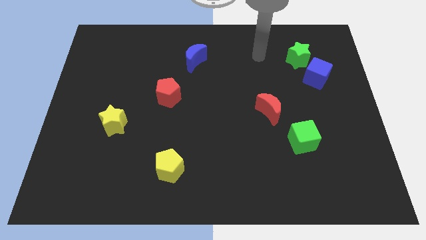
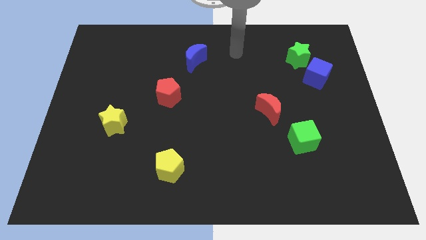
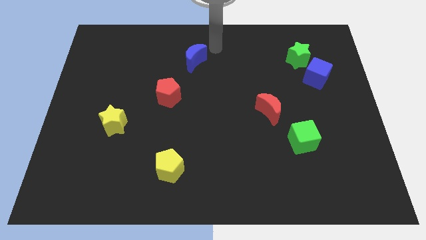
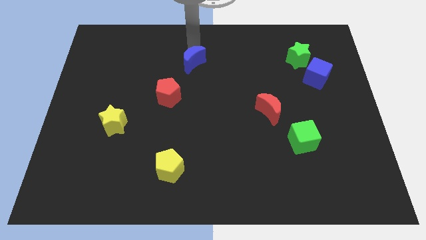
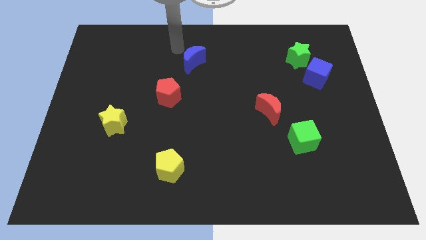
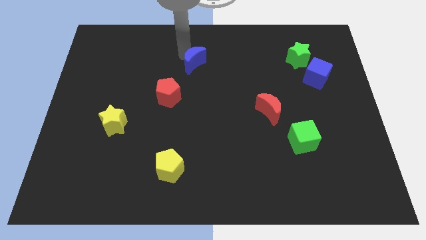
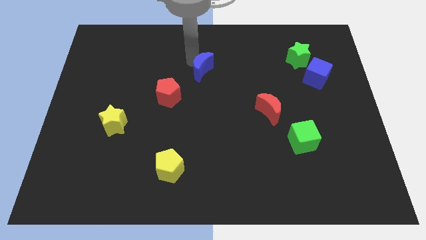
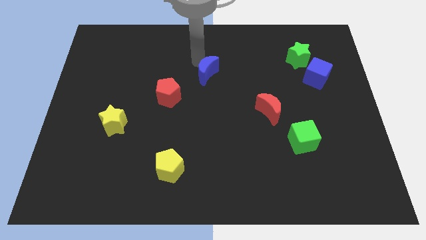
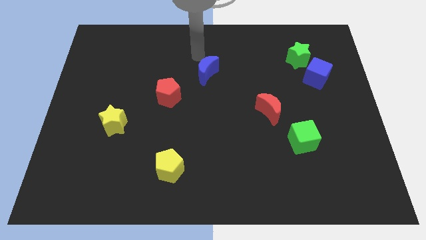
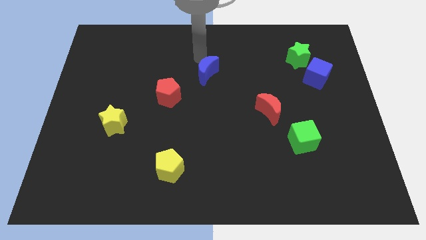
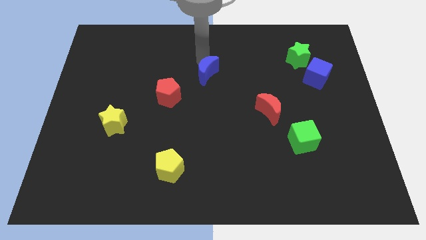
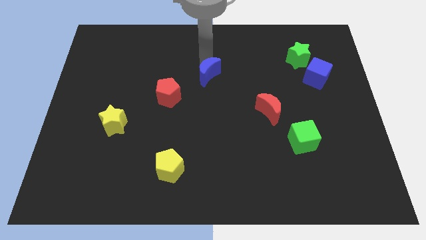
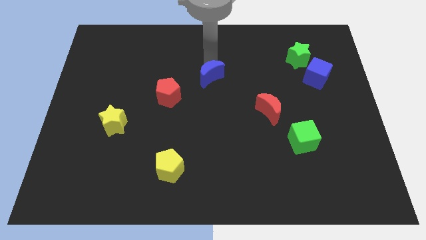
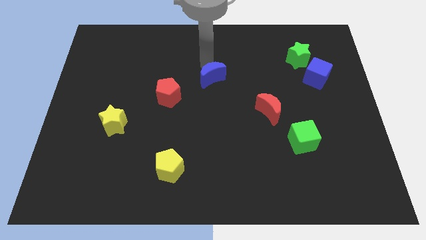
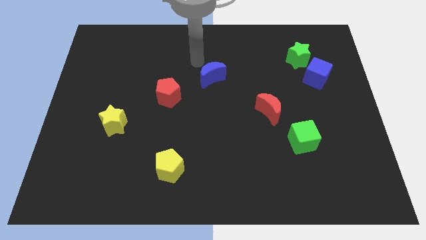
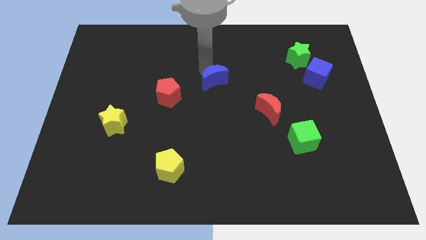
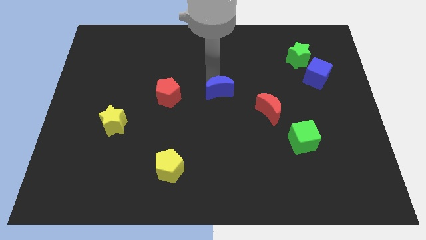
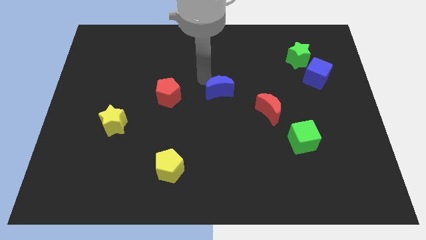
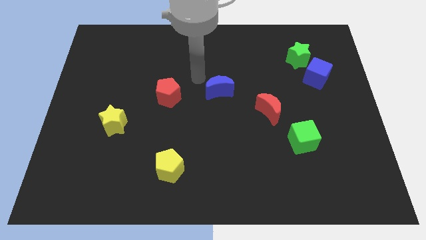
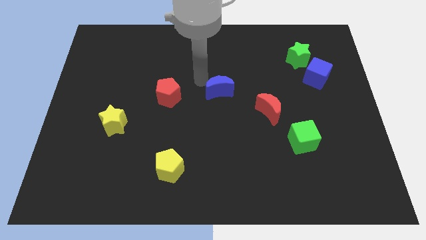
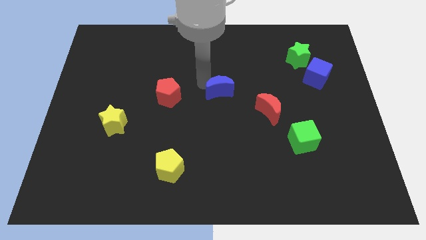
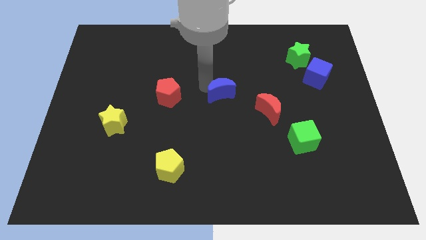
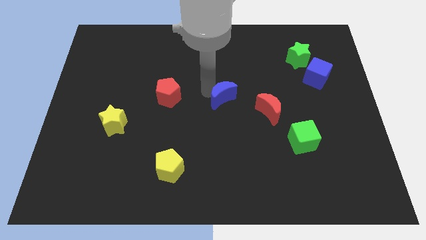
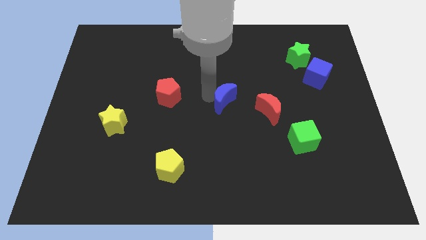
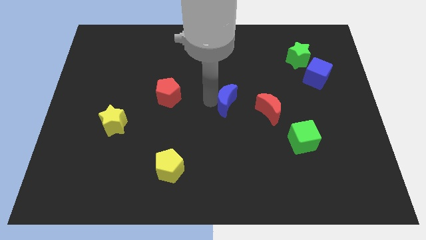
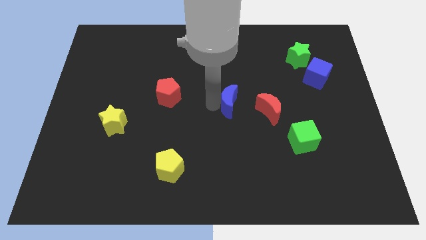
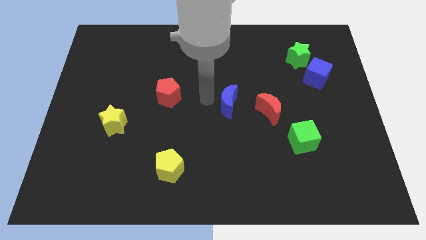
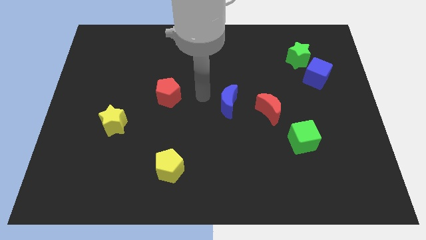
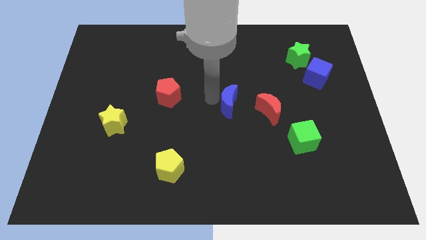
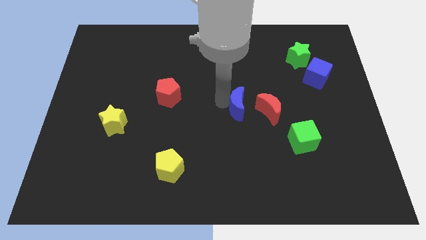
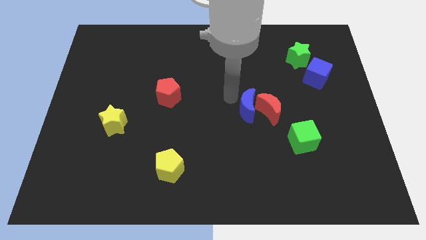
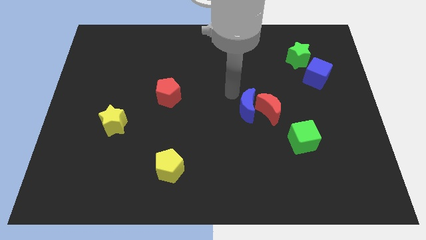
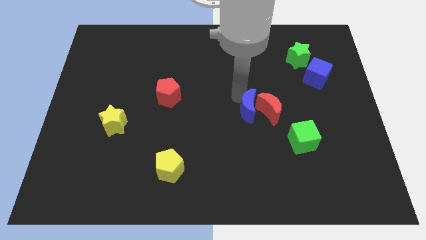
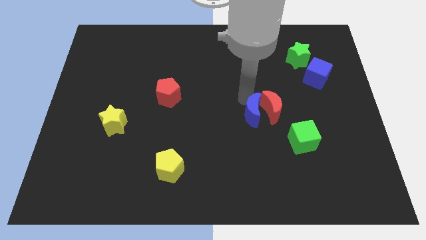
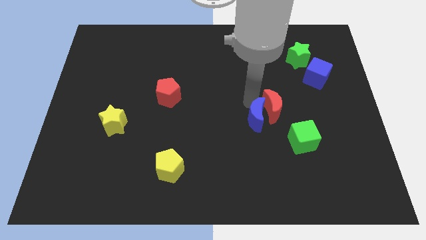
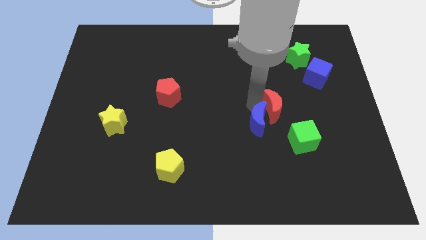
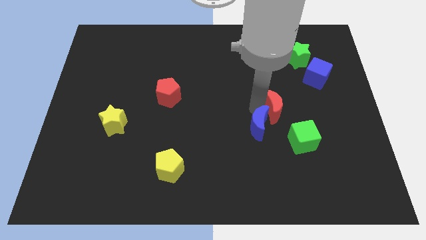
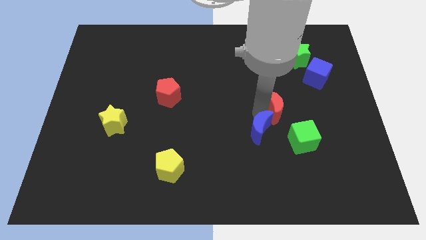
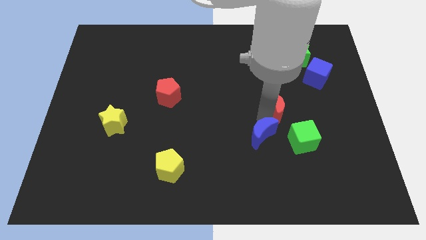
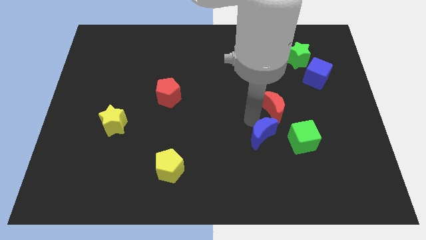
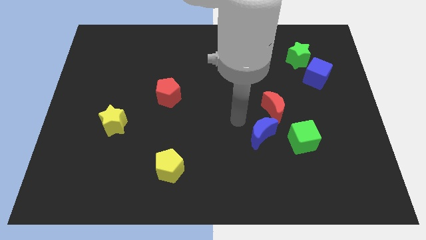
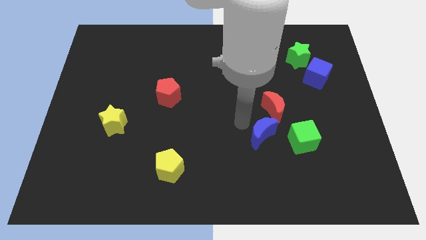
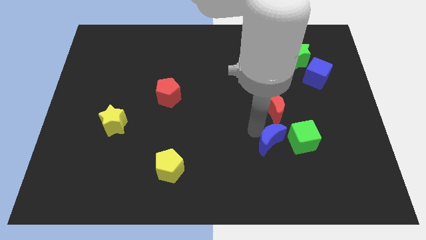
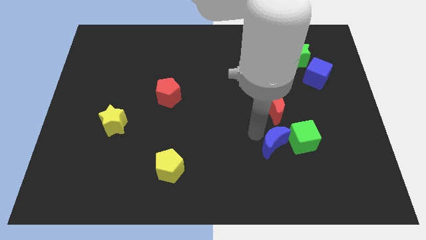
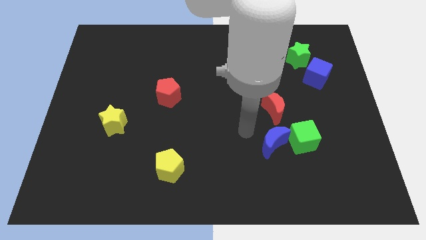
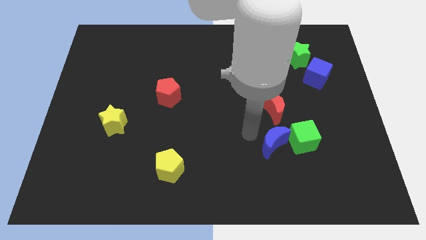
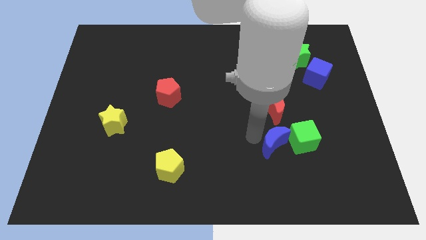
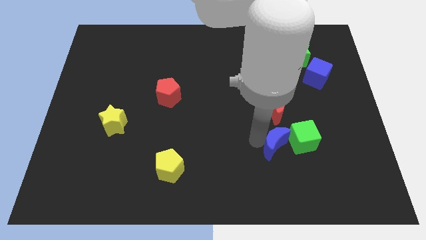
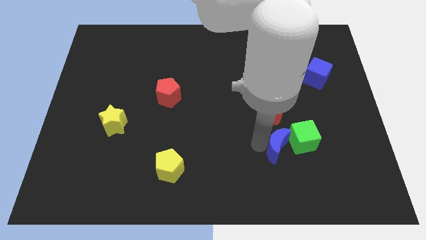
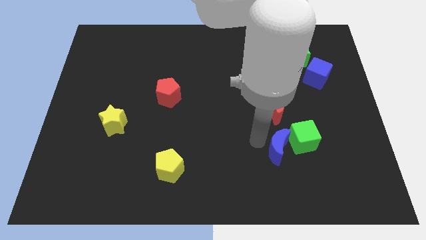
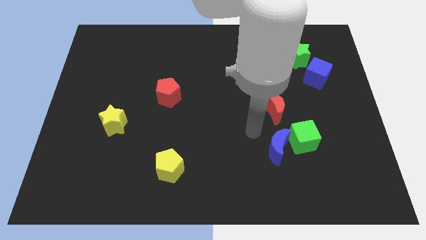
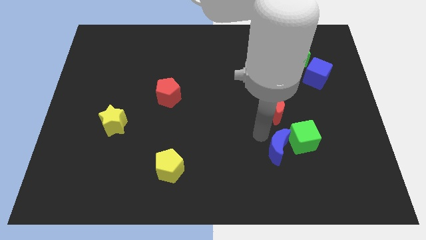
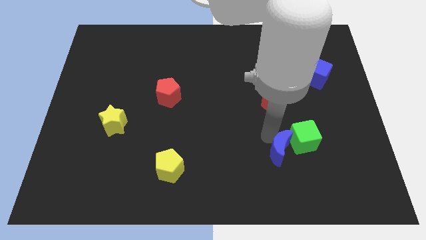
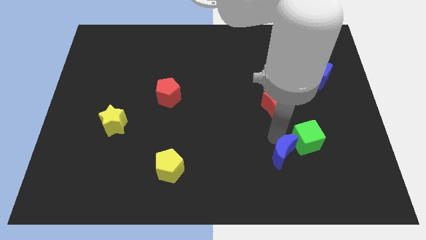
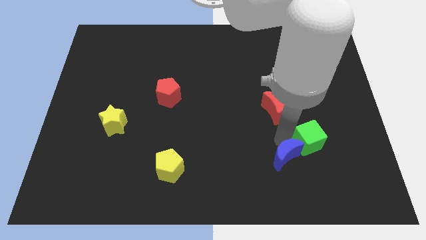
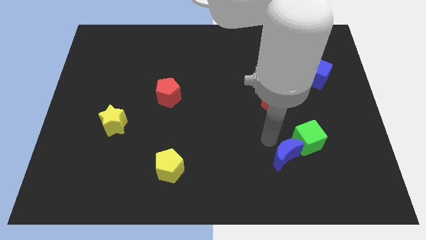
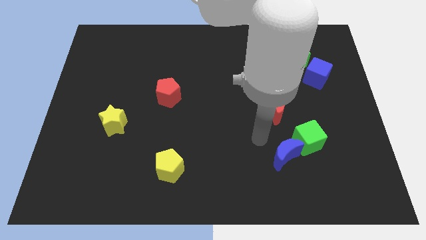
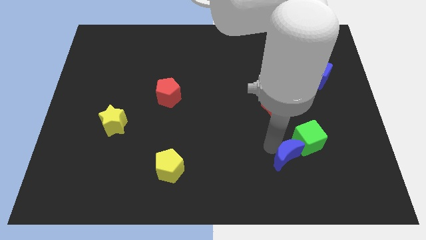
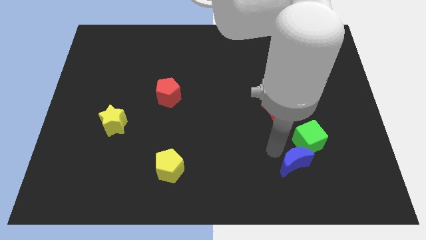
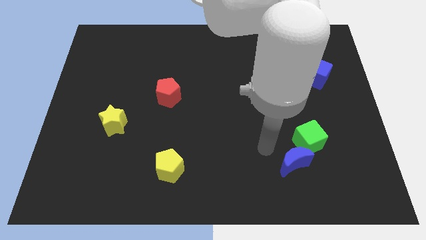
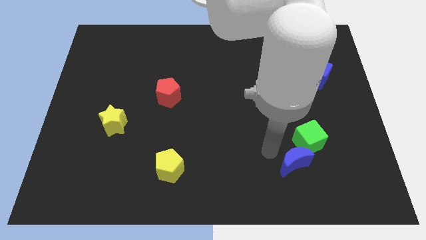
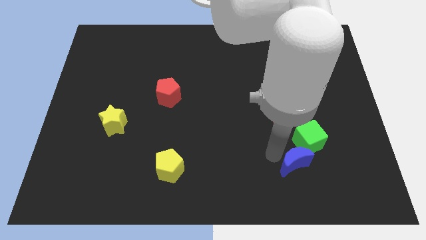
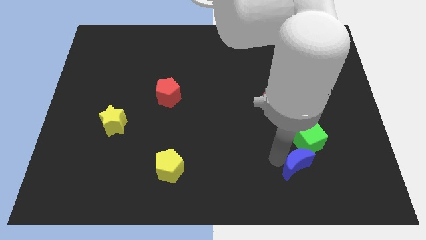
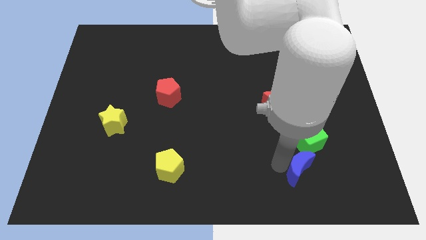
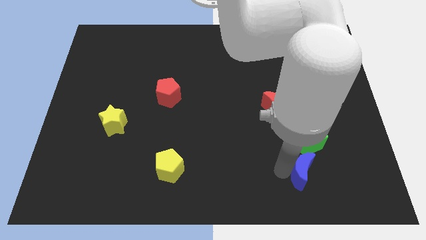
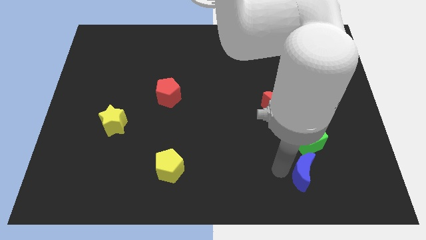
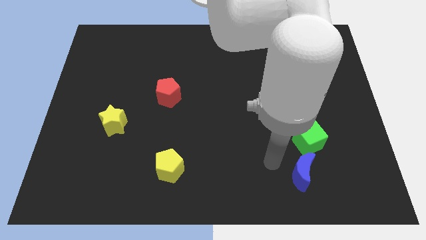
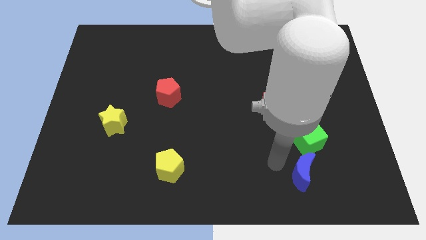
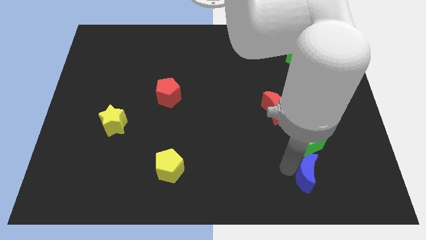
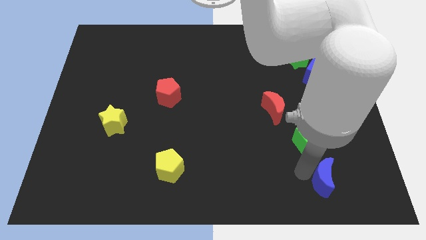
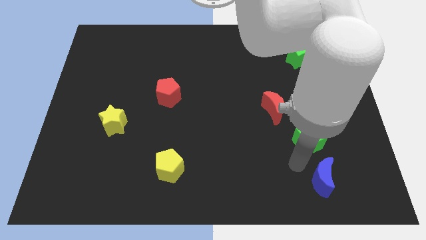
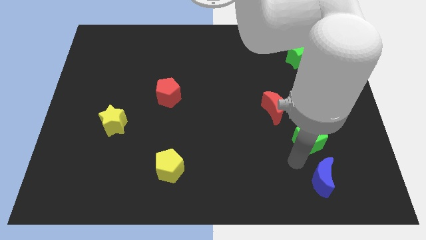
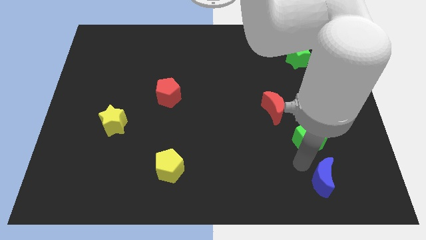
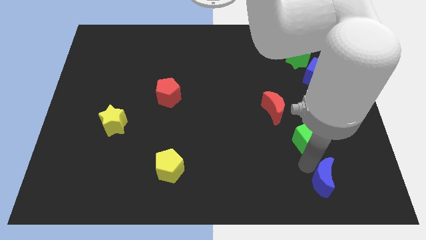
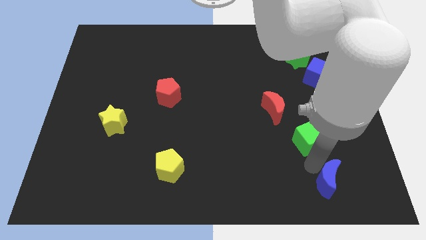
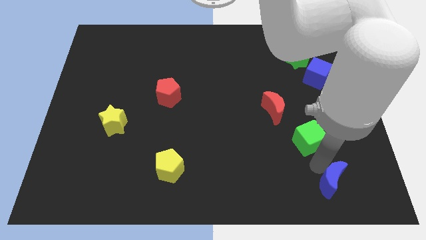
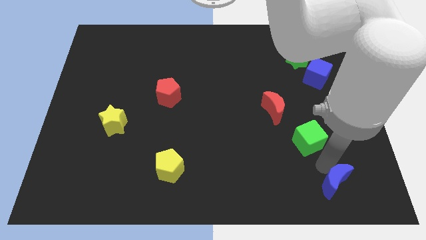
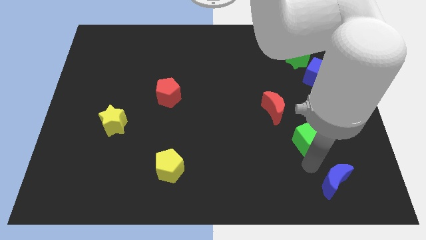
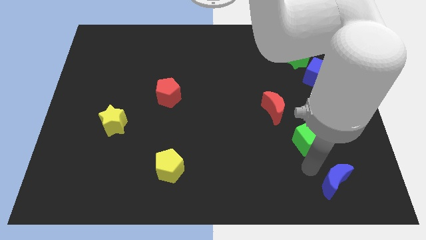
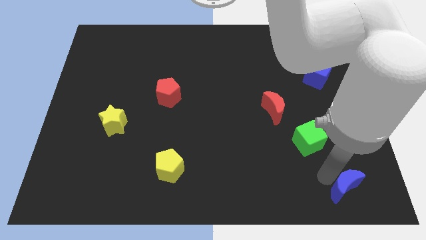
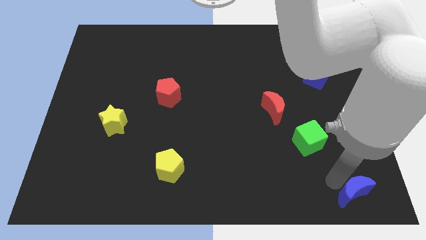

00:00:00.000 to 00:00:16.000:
move the blue moon to the bottom right
